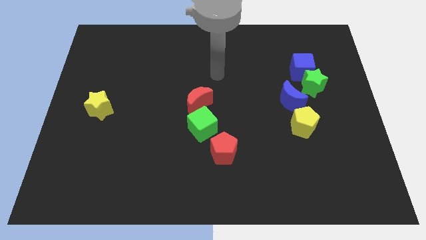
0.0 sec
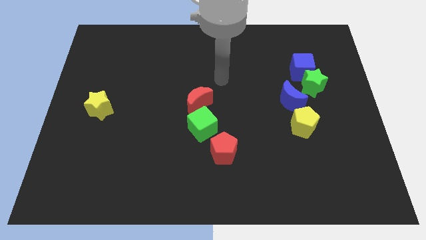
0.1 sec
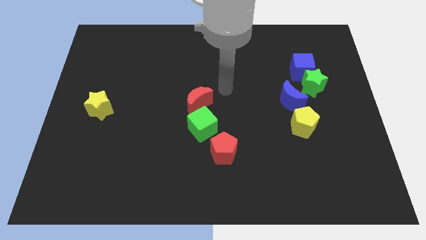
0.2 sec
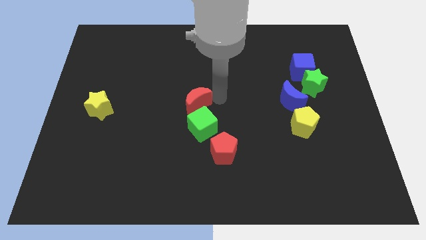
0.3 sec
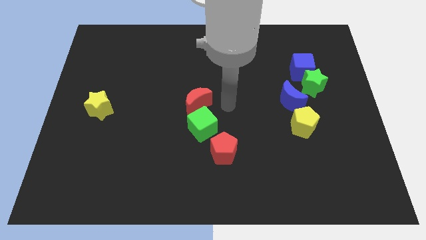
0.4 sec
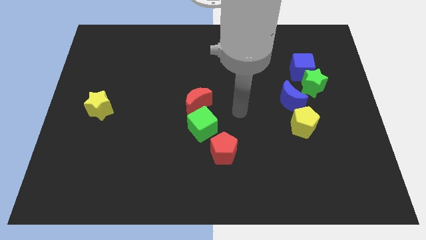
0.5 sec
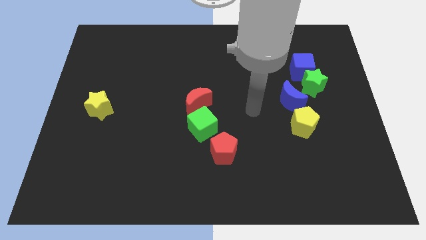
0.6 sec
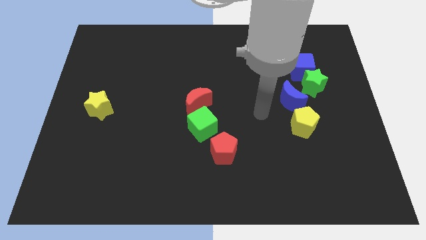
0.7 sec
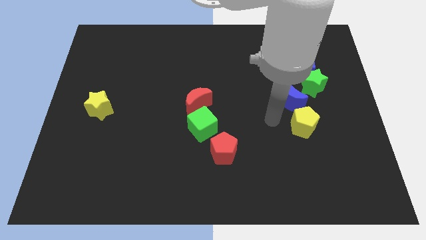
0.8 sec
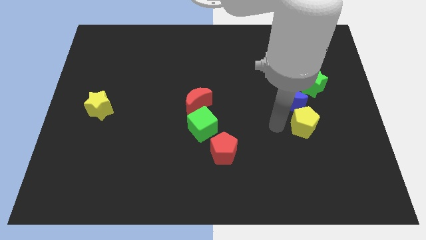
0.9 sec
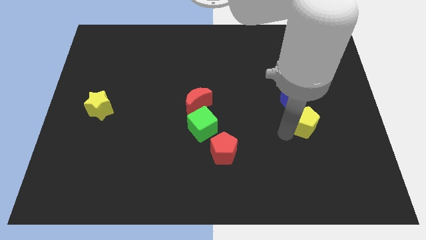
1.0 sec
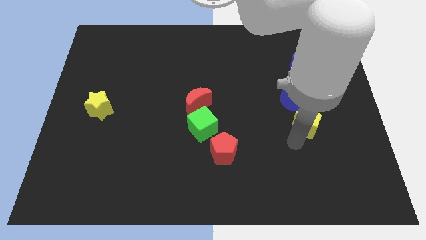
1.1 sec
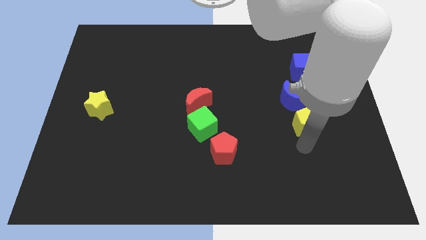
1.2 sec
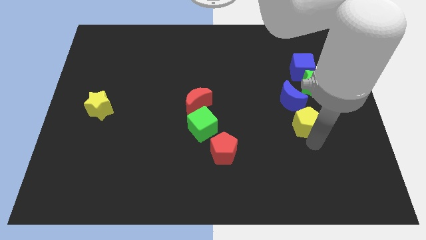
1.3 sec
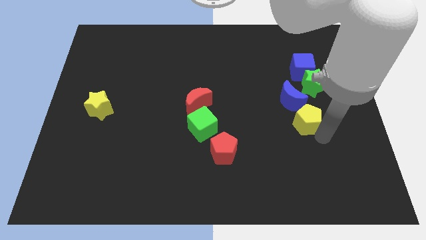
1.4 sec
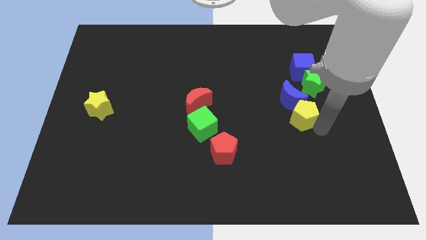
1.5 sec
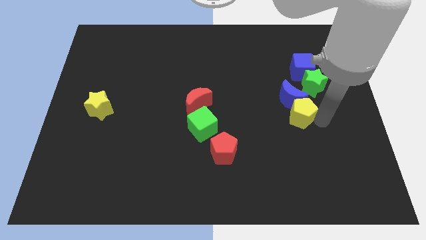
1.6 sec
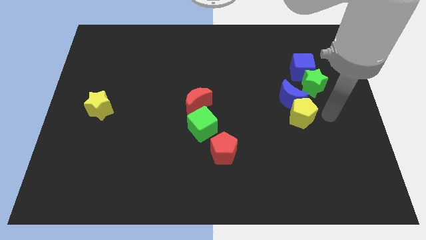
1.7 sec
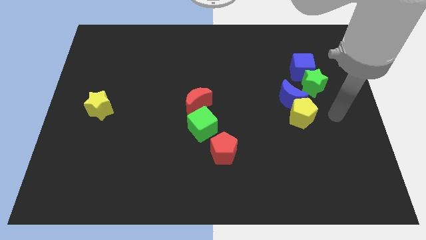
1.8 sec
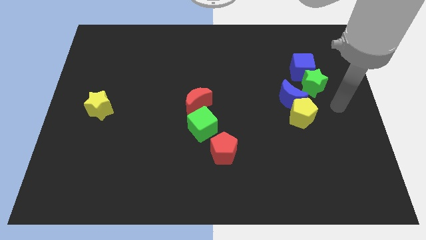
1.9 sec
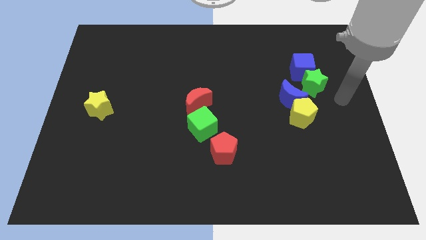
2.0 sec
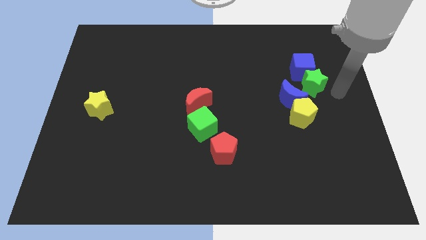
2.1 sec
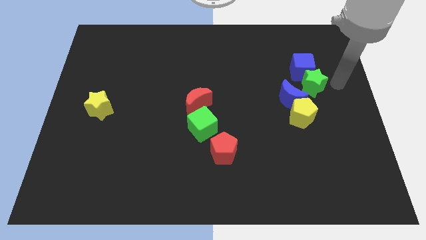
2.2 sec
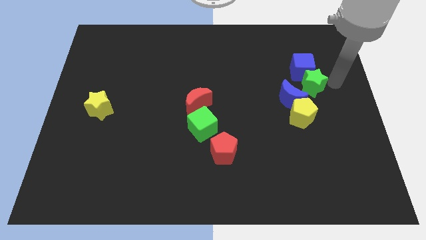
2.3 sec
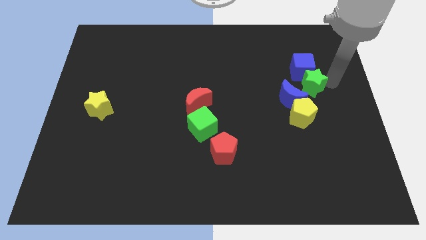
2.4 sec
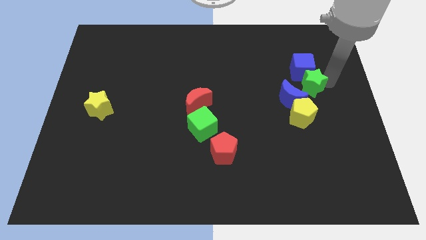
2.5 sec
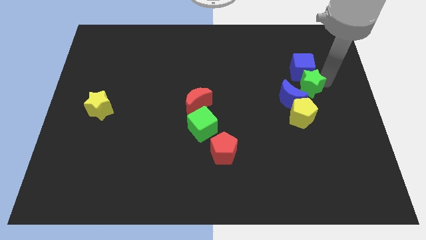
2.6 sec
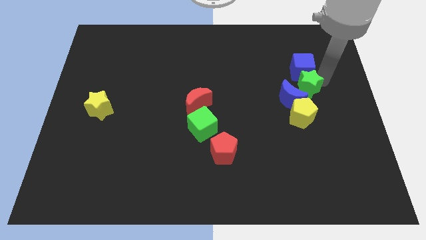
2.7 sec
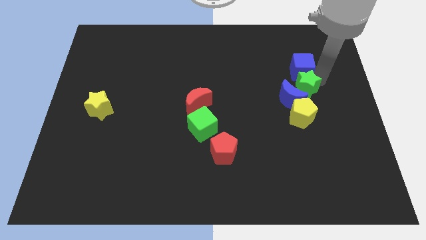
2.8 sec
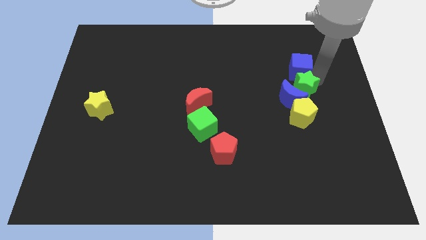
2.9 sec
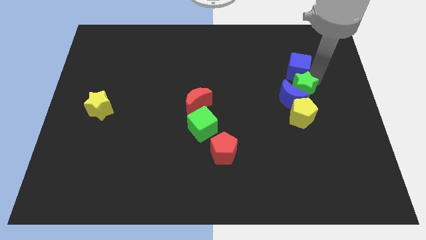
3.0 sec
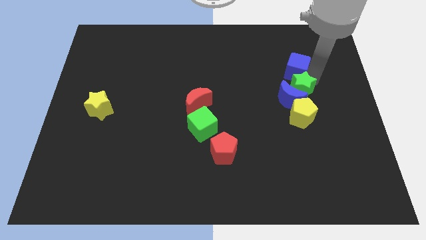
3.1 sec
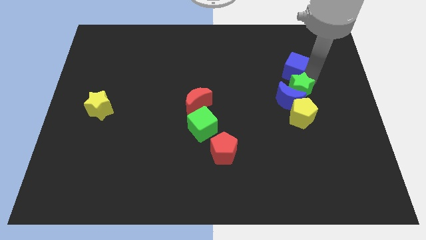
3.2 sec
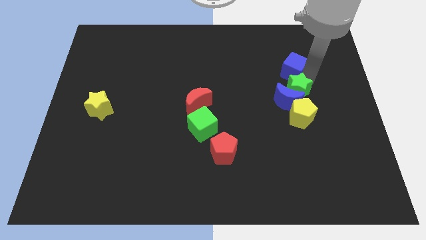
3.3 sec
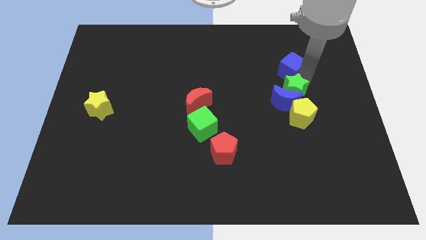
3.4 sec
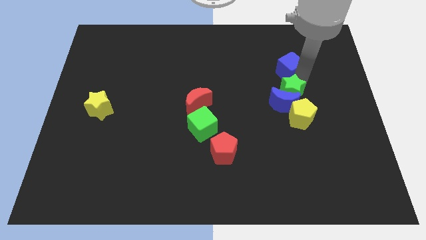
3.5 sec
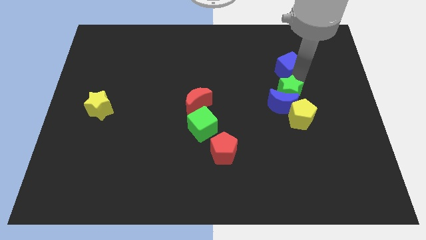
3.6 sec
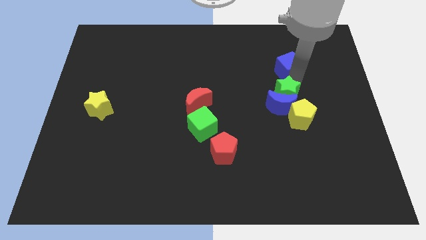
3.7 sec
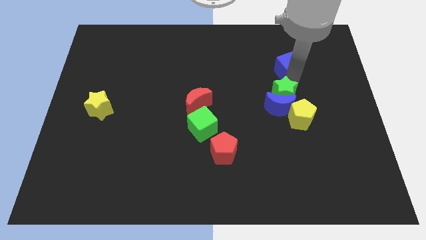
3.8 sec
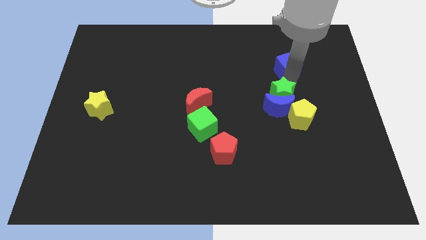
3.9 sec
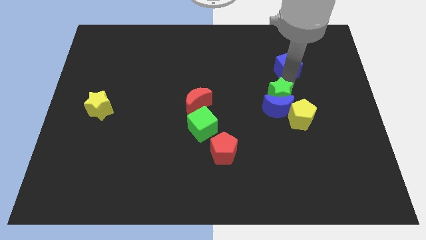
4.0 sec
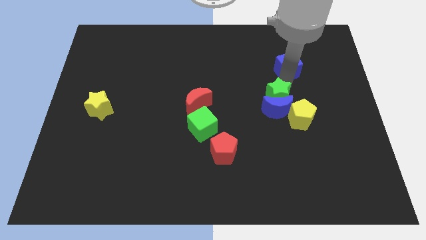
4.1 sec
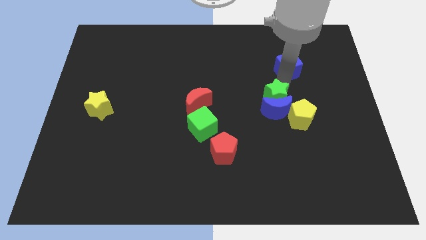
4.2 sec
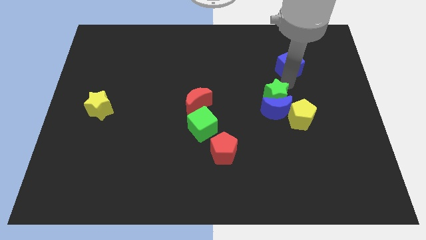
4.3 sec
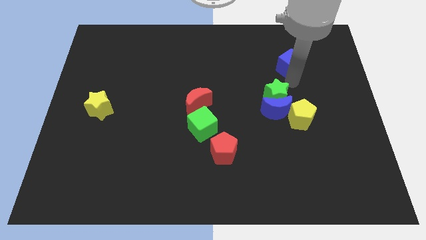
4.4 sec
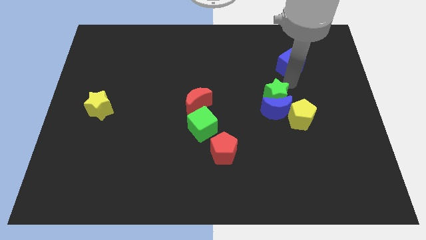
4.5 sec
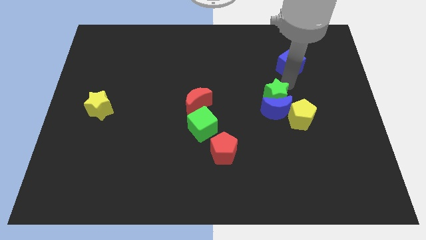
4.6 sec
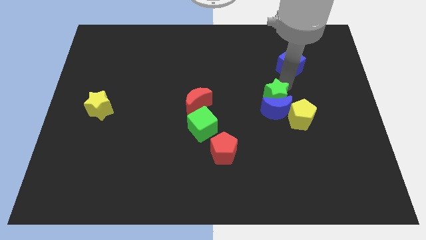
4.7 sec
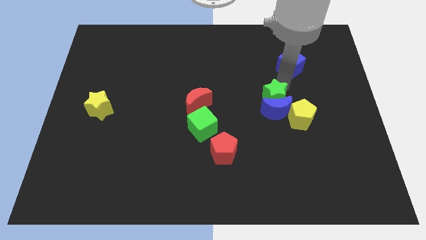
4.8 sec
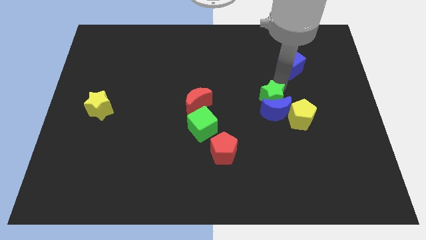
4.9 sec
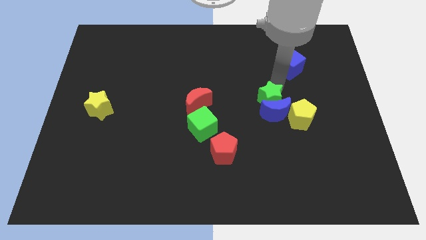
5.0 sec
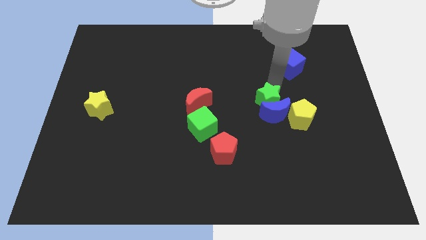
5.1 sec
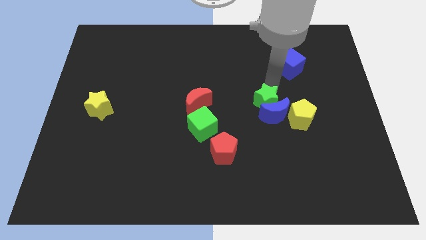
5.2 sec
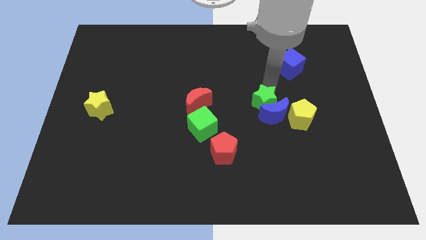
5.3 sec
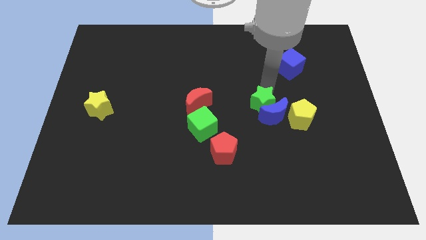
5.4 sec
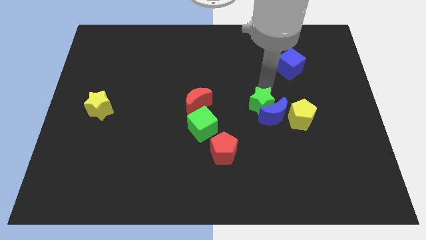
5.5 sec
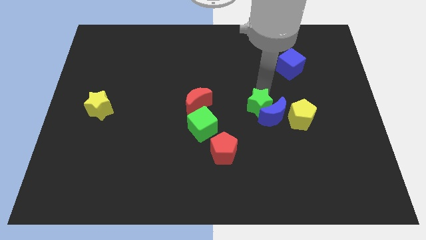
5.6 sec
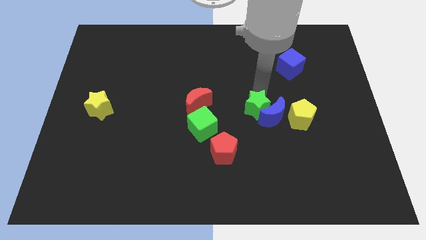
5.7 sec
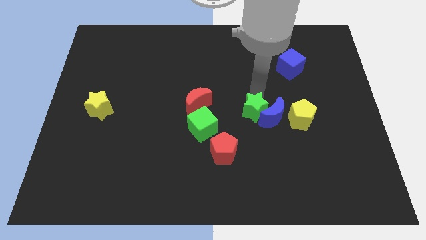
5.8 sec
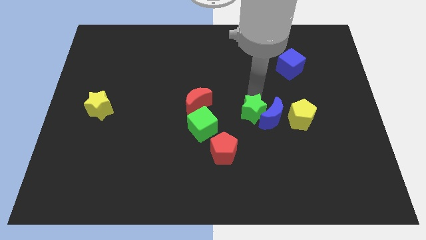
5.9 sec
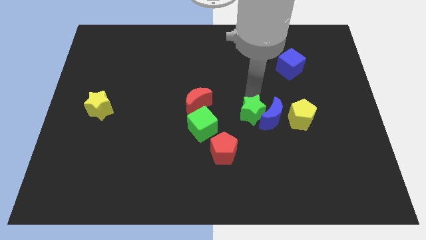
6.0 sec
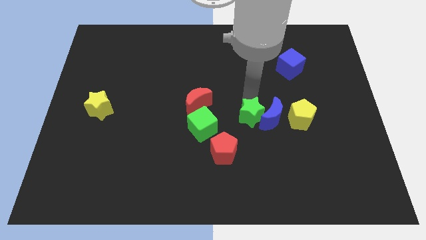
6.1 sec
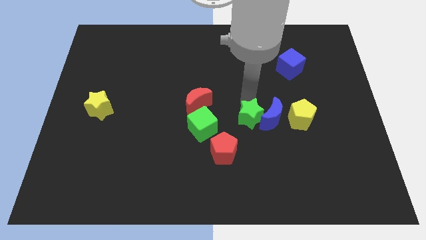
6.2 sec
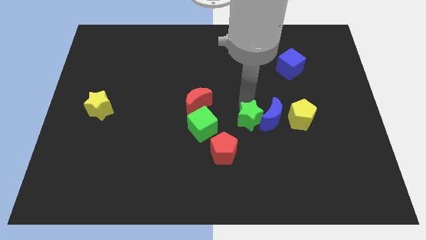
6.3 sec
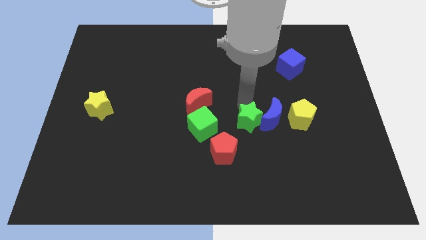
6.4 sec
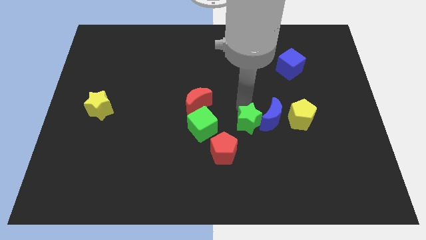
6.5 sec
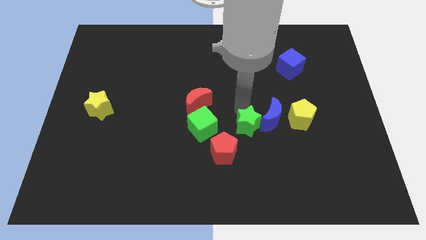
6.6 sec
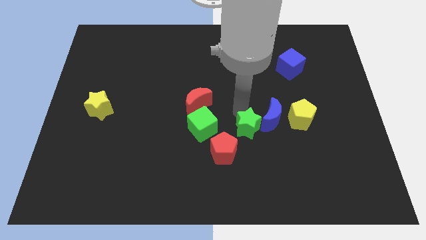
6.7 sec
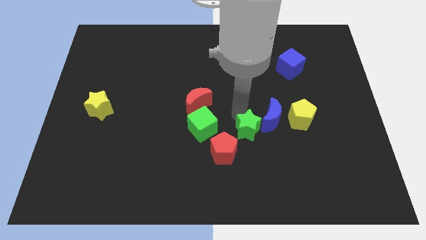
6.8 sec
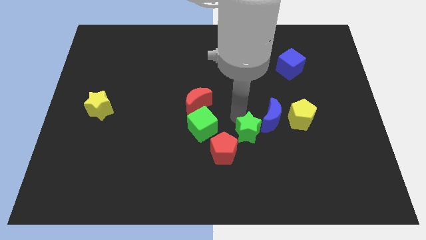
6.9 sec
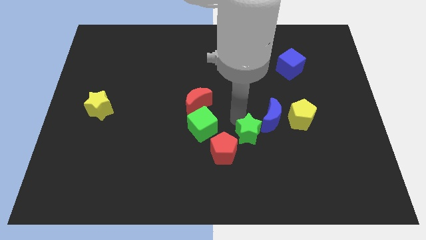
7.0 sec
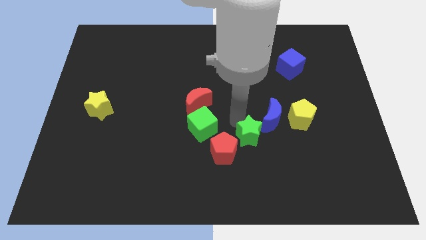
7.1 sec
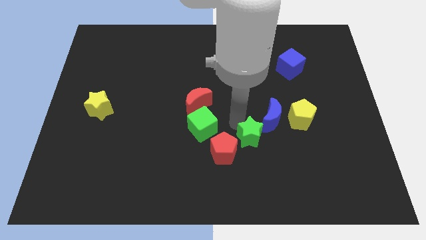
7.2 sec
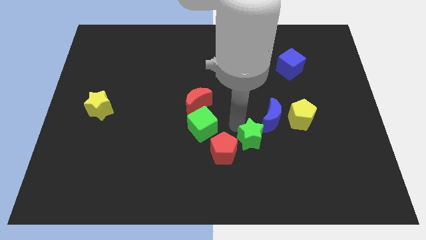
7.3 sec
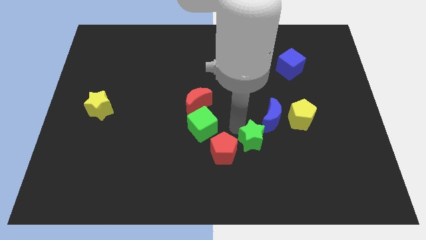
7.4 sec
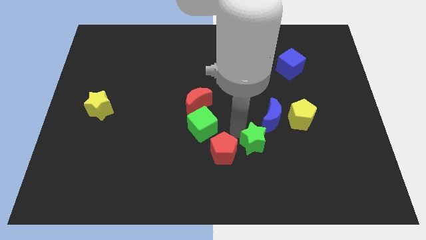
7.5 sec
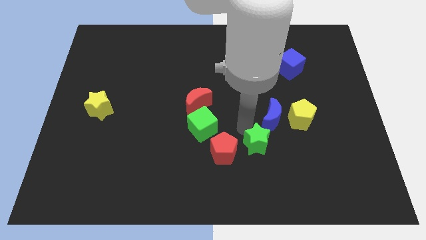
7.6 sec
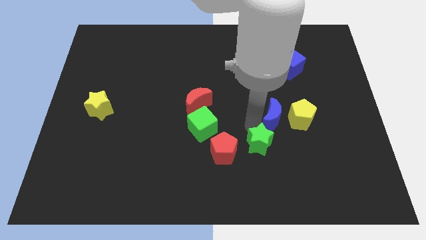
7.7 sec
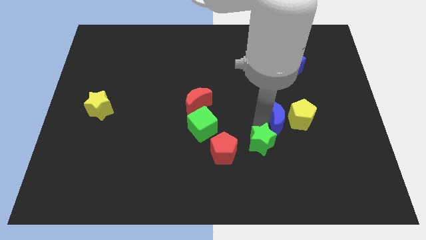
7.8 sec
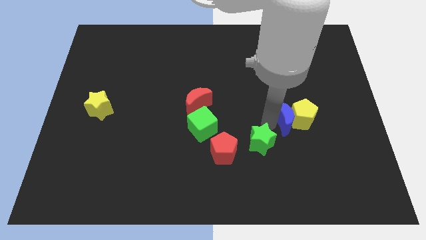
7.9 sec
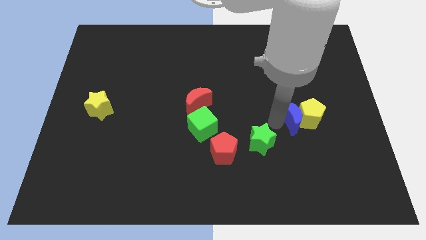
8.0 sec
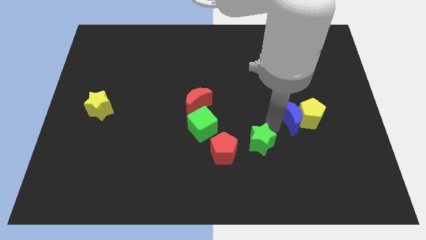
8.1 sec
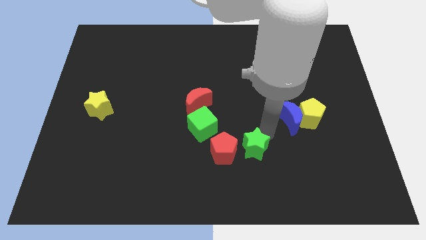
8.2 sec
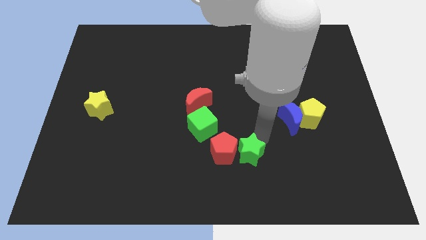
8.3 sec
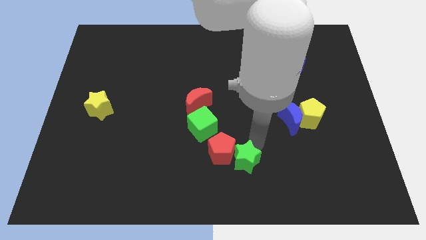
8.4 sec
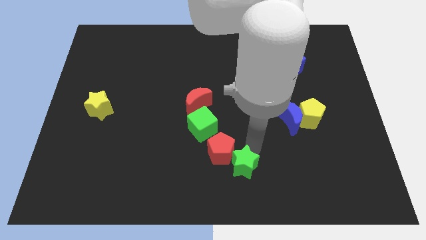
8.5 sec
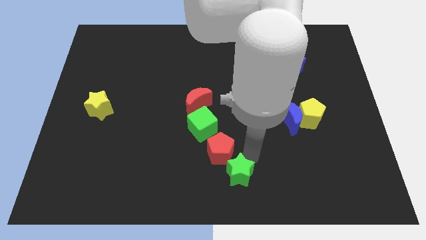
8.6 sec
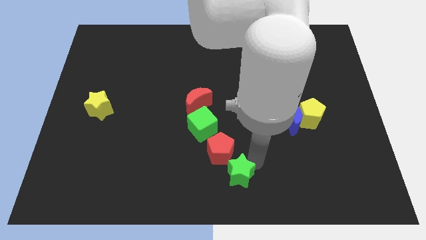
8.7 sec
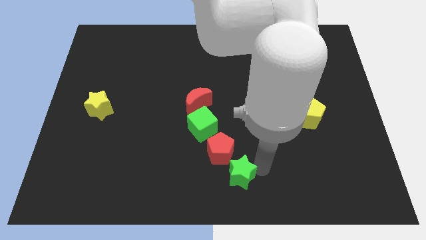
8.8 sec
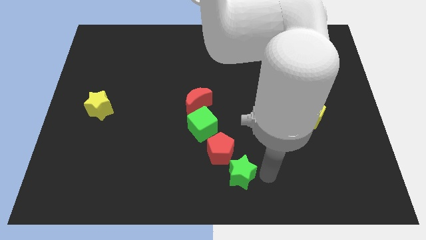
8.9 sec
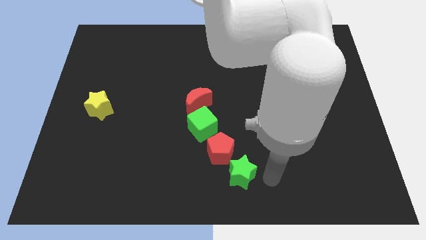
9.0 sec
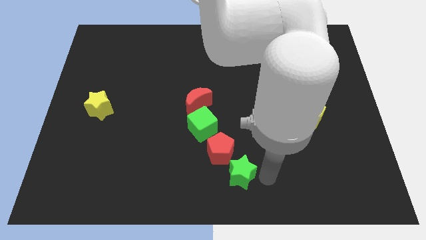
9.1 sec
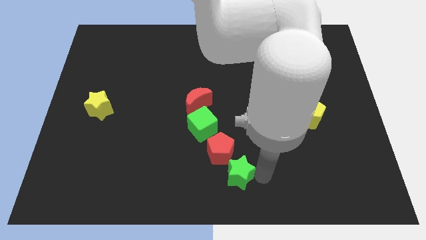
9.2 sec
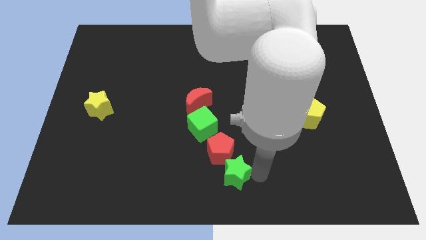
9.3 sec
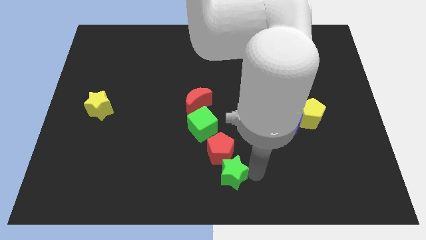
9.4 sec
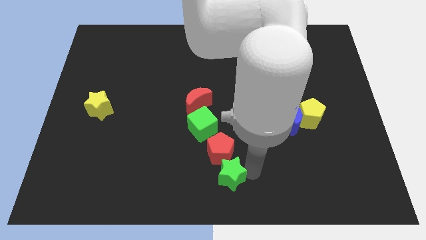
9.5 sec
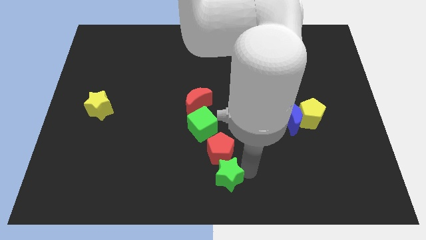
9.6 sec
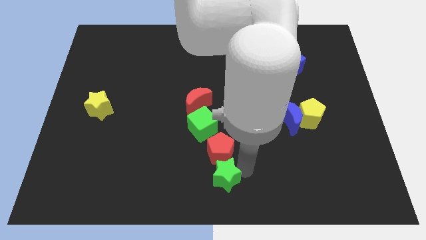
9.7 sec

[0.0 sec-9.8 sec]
slide the green star below the green cube
